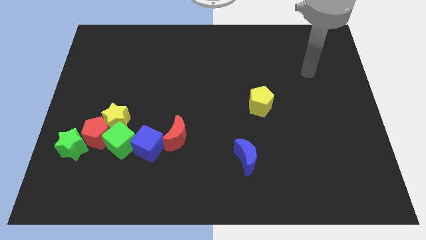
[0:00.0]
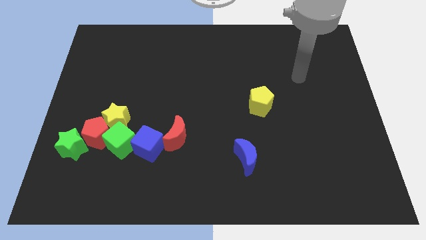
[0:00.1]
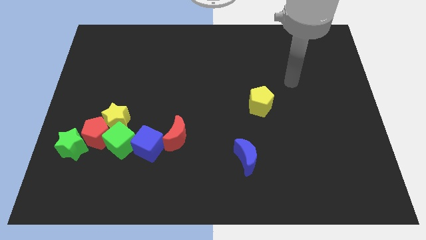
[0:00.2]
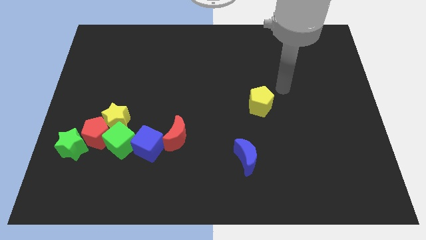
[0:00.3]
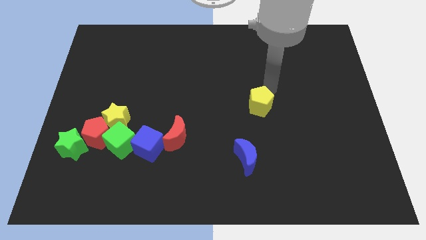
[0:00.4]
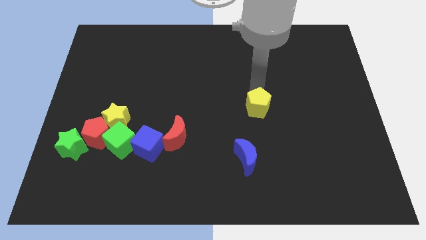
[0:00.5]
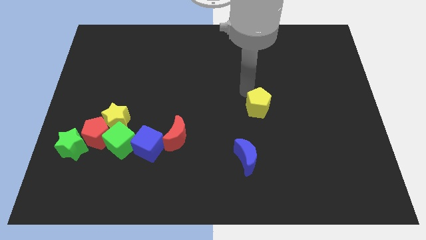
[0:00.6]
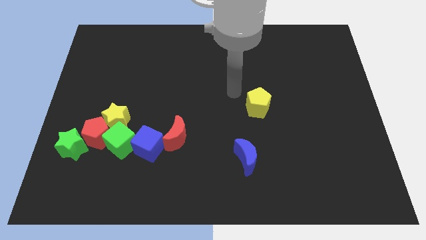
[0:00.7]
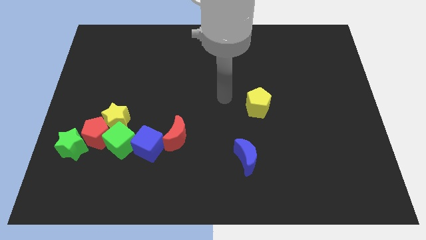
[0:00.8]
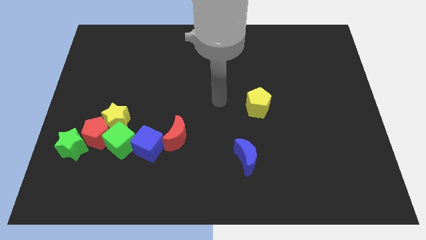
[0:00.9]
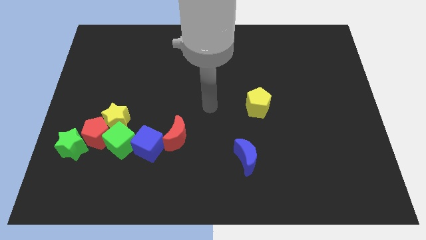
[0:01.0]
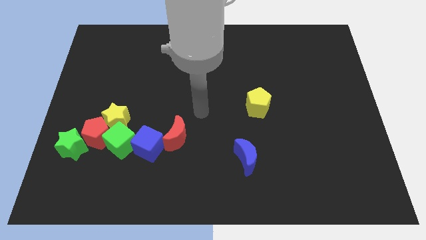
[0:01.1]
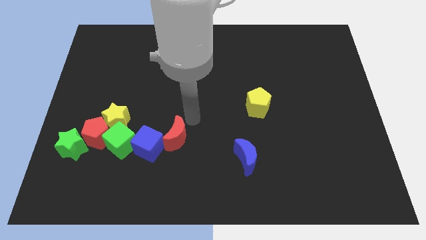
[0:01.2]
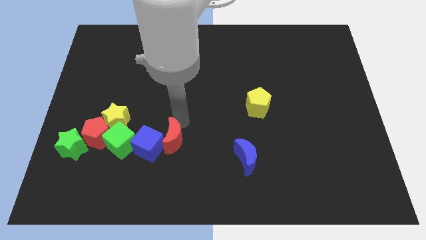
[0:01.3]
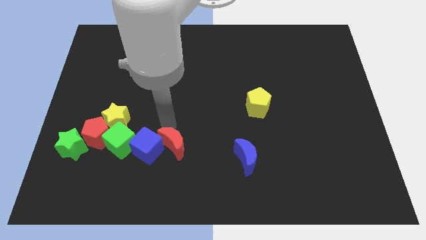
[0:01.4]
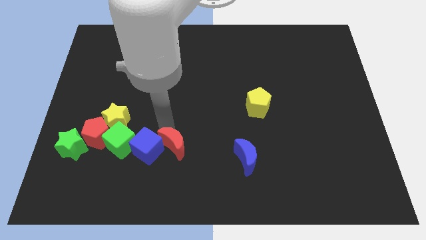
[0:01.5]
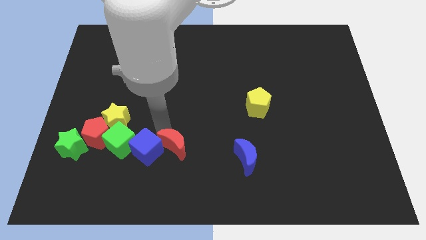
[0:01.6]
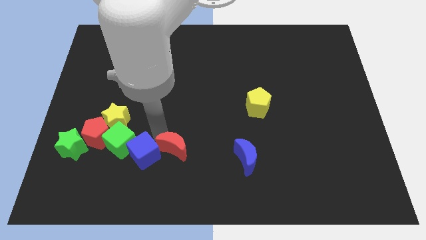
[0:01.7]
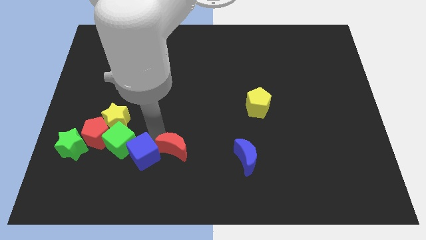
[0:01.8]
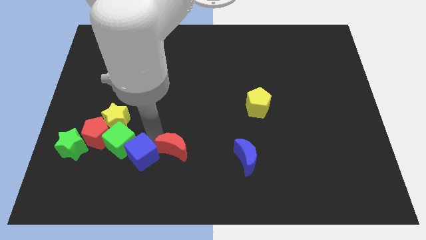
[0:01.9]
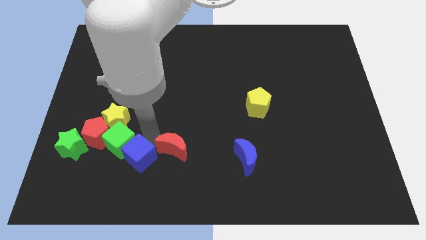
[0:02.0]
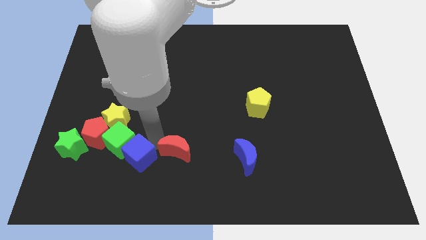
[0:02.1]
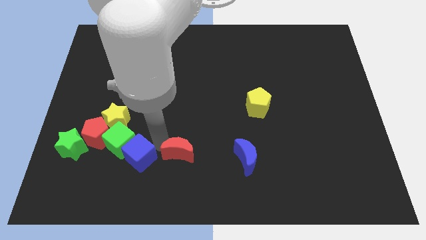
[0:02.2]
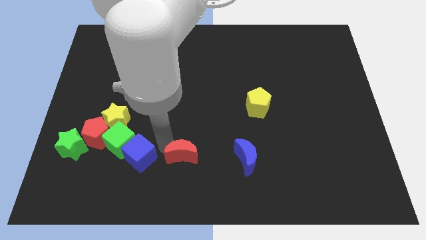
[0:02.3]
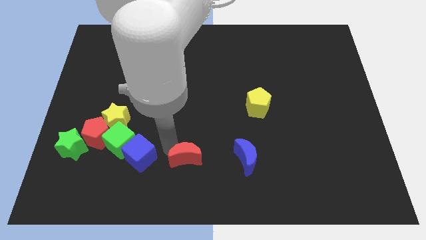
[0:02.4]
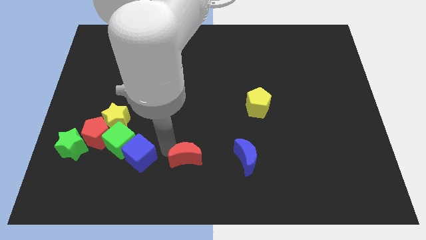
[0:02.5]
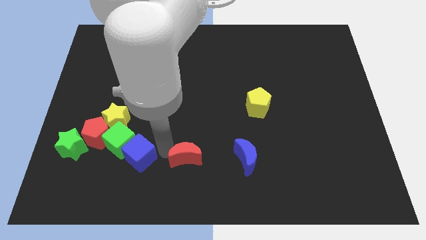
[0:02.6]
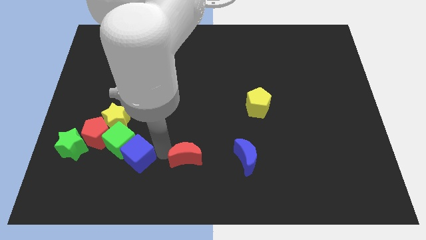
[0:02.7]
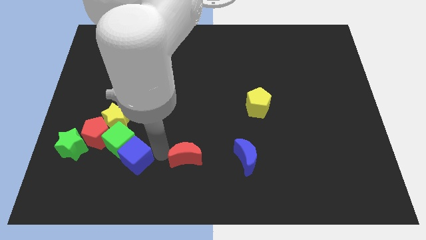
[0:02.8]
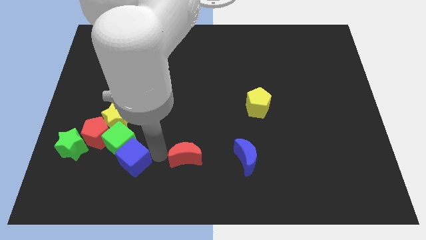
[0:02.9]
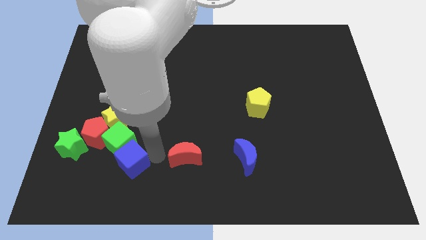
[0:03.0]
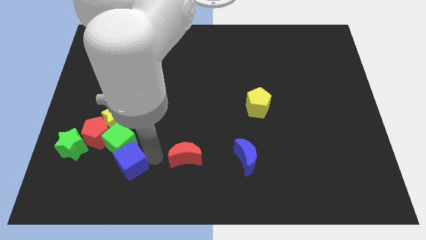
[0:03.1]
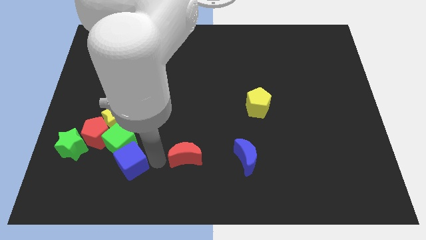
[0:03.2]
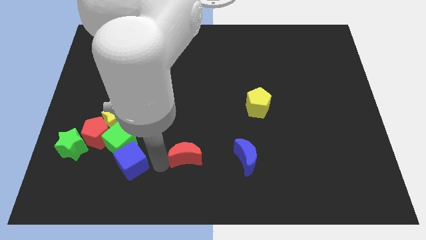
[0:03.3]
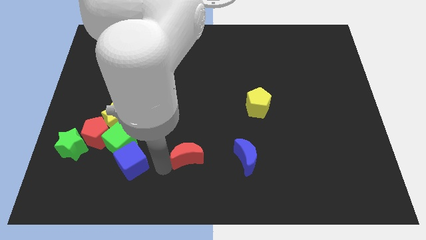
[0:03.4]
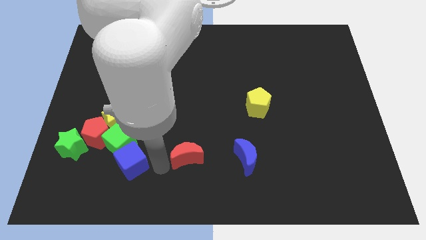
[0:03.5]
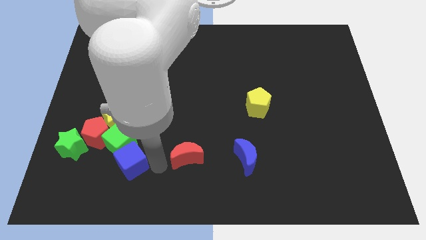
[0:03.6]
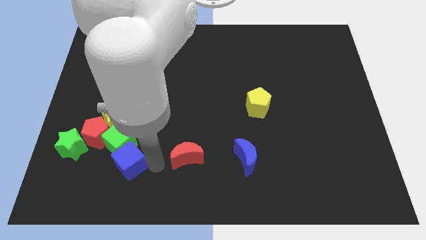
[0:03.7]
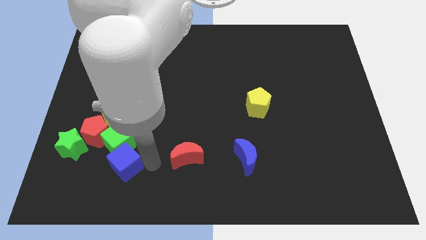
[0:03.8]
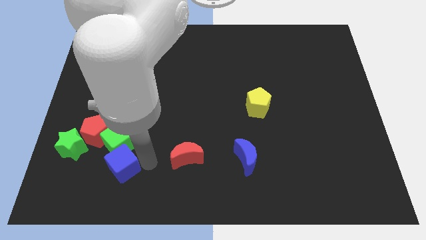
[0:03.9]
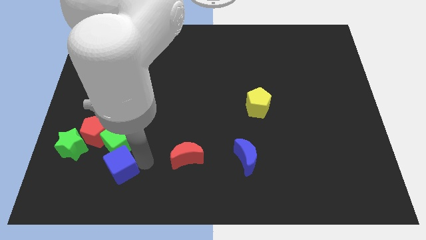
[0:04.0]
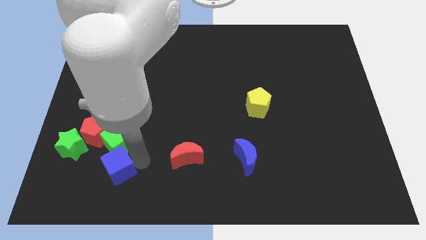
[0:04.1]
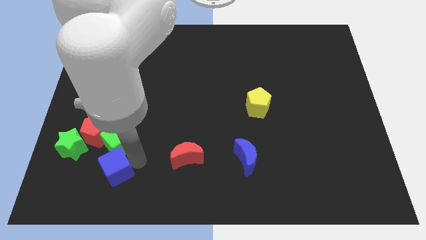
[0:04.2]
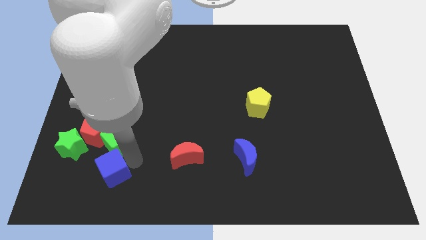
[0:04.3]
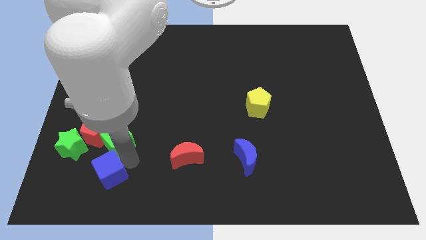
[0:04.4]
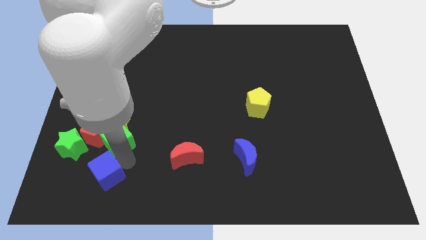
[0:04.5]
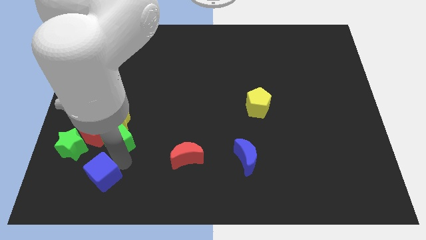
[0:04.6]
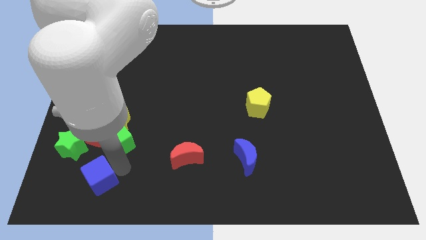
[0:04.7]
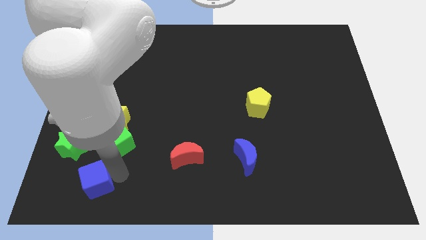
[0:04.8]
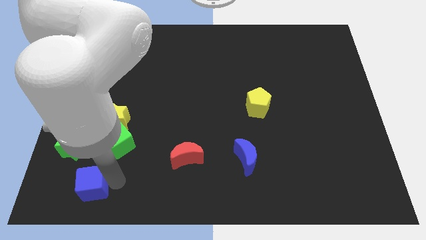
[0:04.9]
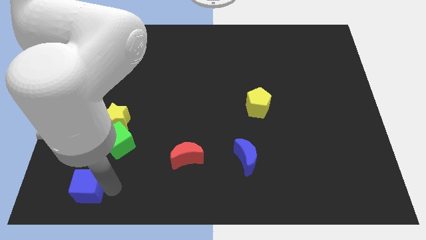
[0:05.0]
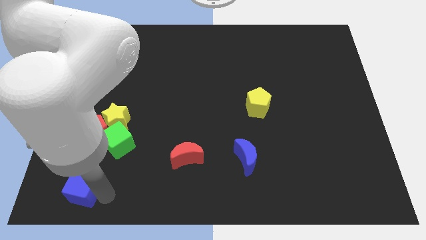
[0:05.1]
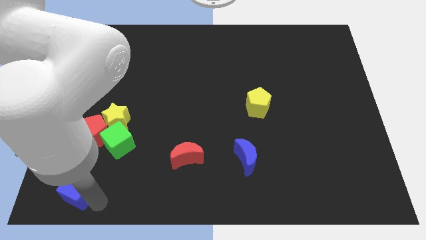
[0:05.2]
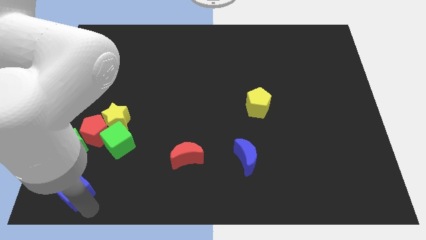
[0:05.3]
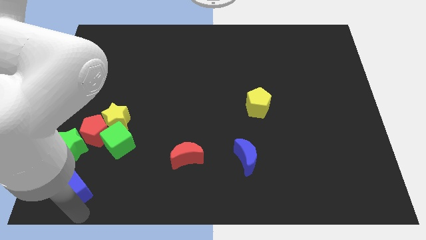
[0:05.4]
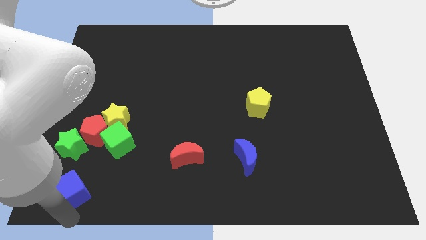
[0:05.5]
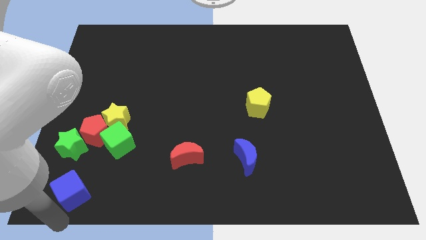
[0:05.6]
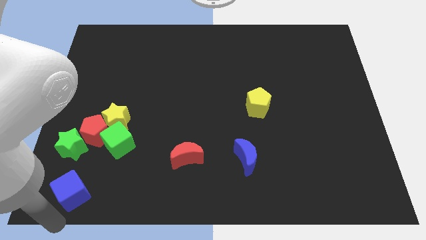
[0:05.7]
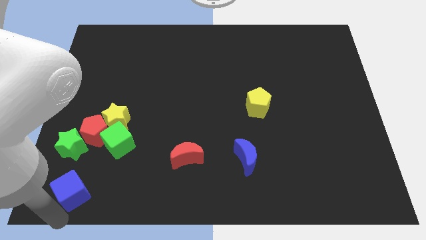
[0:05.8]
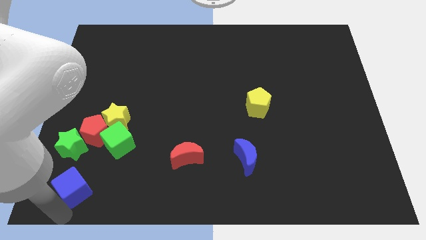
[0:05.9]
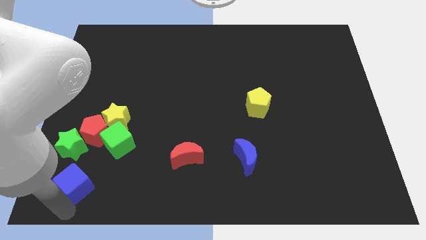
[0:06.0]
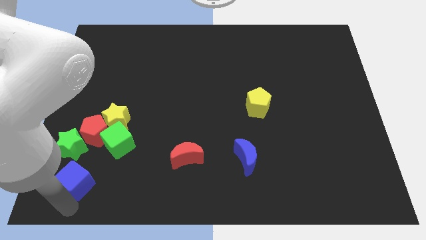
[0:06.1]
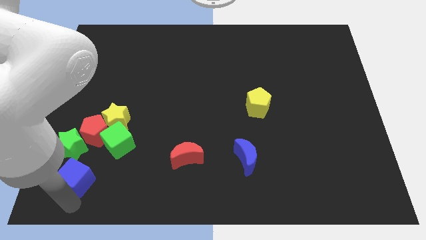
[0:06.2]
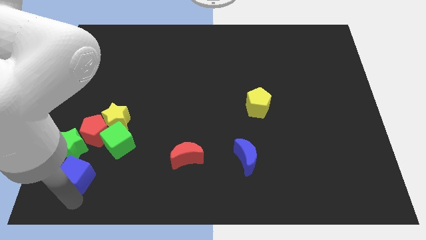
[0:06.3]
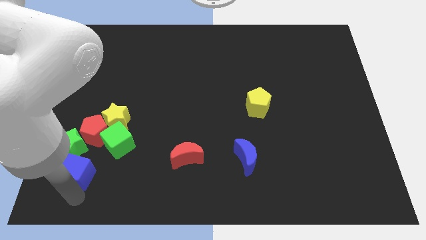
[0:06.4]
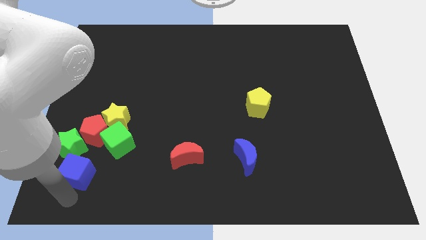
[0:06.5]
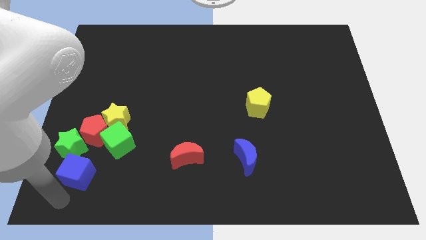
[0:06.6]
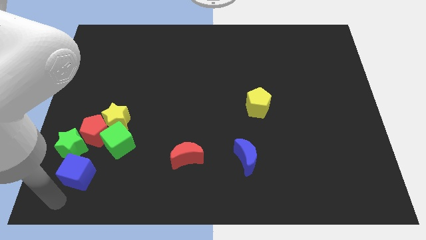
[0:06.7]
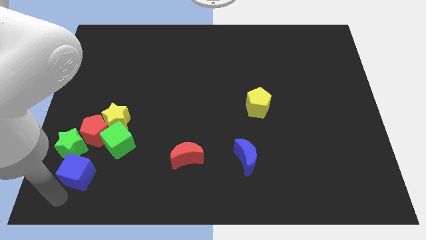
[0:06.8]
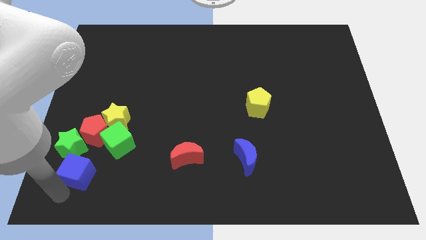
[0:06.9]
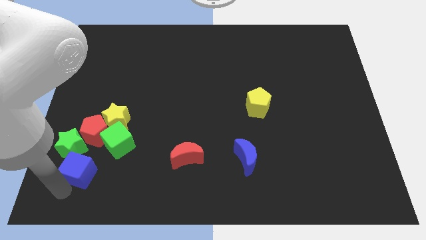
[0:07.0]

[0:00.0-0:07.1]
move the blue cube towards the green star
